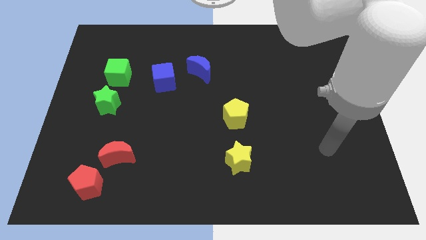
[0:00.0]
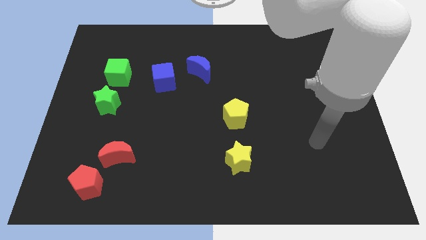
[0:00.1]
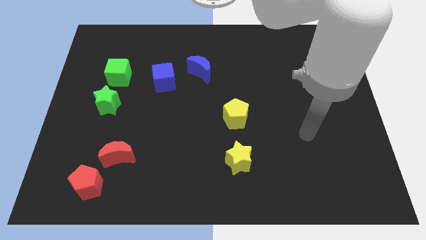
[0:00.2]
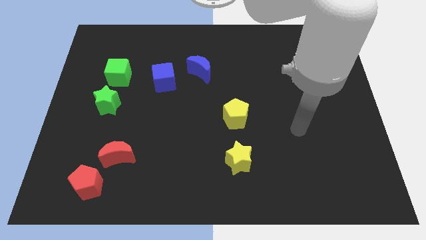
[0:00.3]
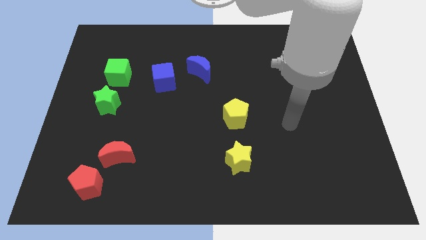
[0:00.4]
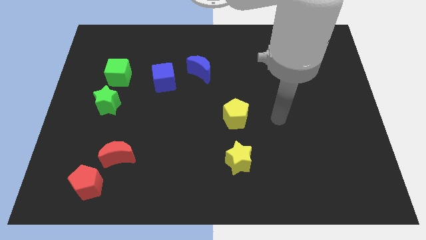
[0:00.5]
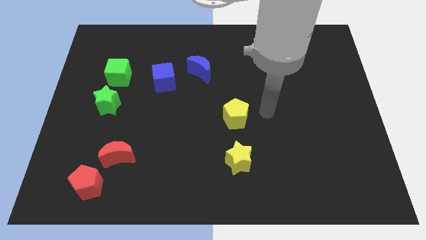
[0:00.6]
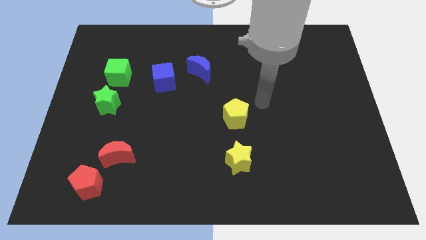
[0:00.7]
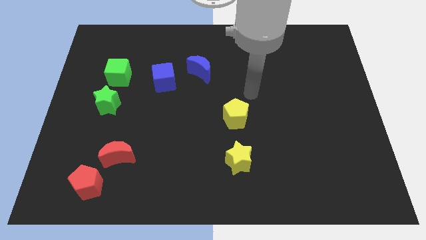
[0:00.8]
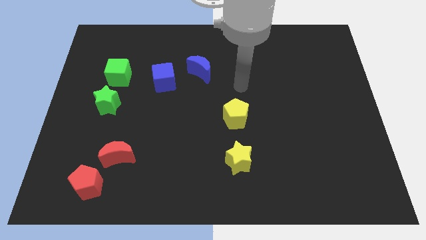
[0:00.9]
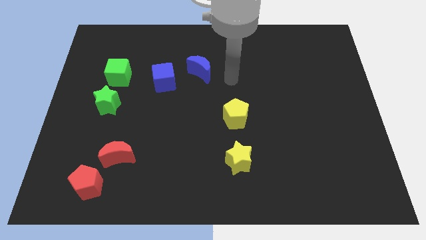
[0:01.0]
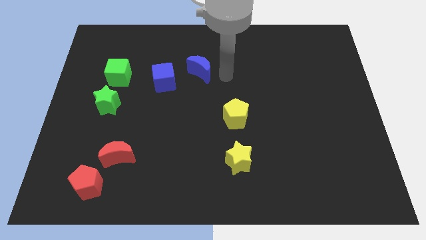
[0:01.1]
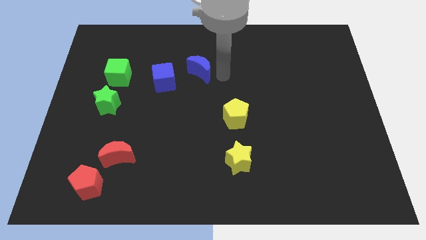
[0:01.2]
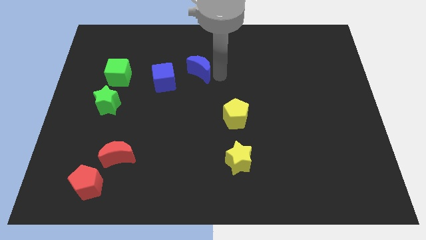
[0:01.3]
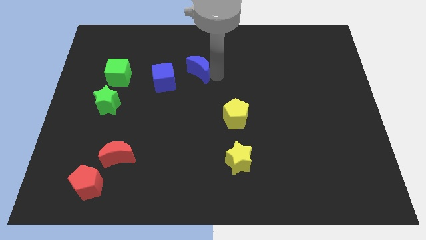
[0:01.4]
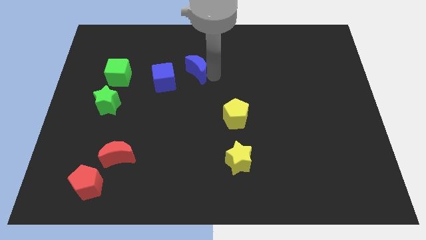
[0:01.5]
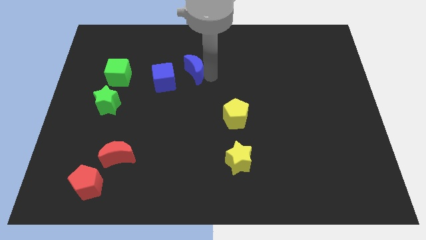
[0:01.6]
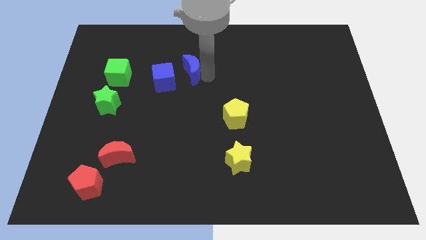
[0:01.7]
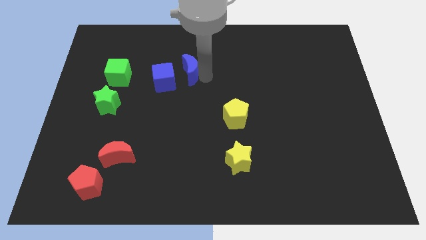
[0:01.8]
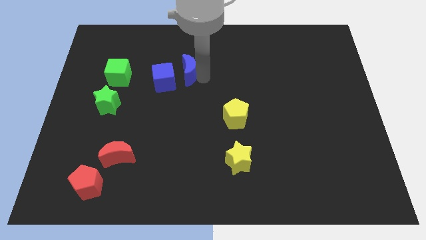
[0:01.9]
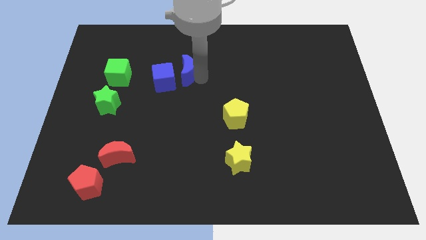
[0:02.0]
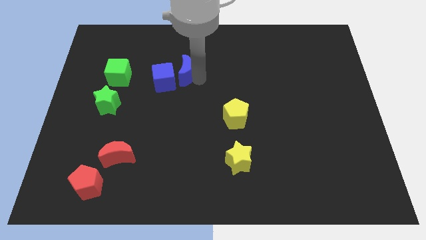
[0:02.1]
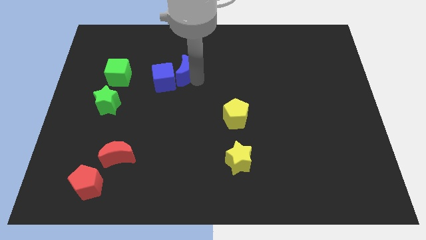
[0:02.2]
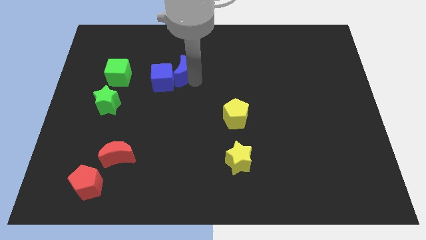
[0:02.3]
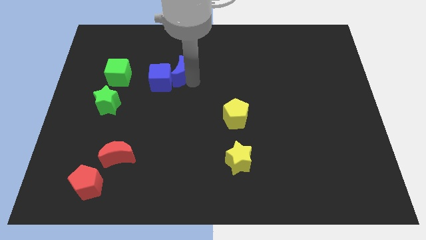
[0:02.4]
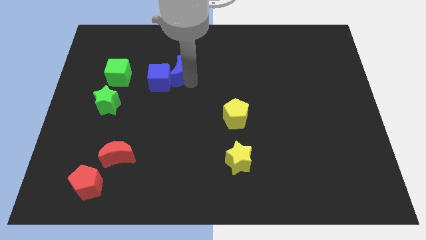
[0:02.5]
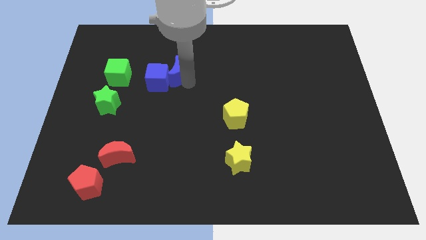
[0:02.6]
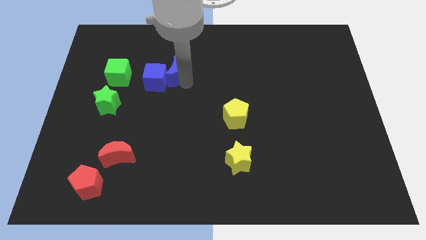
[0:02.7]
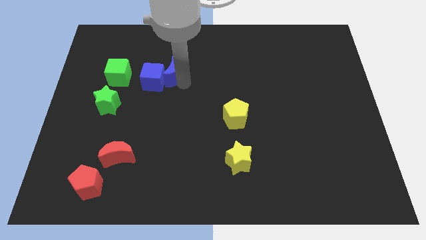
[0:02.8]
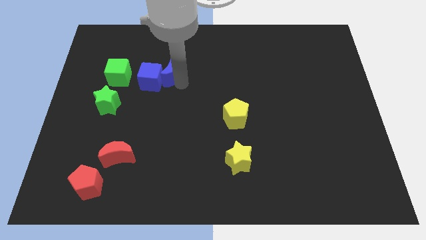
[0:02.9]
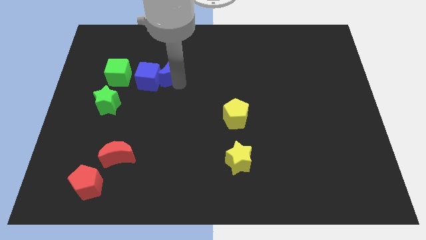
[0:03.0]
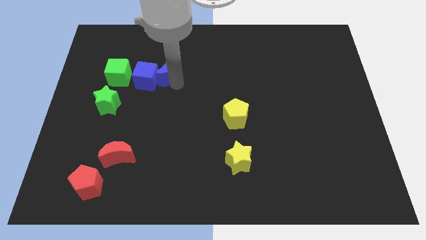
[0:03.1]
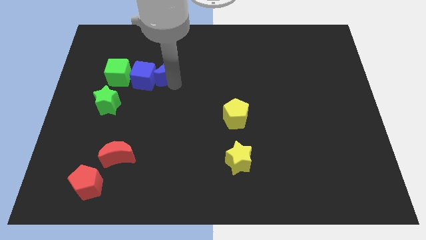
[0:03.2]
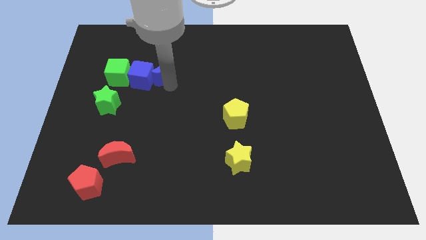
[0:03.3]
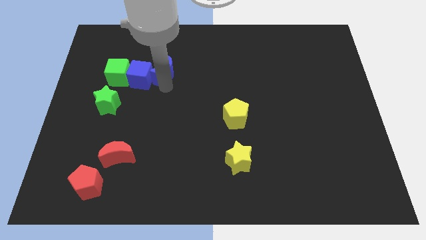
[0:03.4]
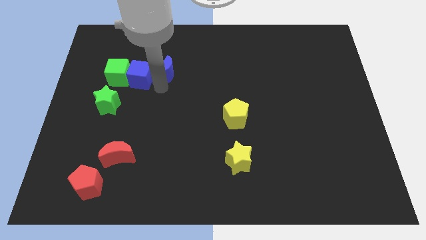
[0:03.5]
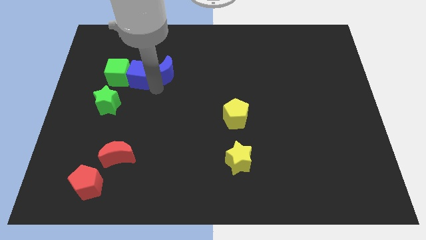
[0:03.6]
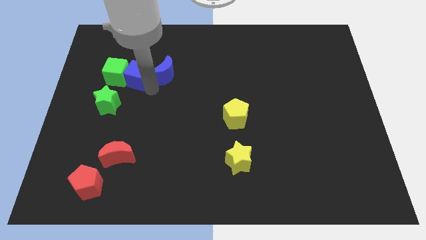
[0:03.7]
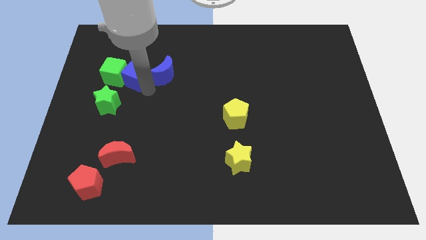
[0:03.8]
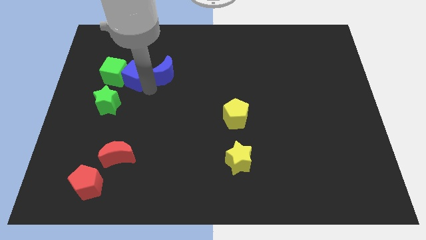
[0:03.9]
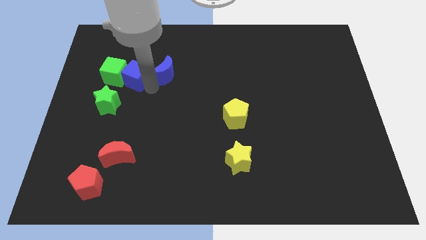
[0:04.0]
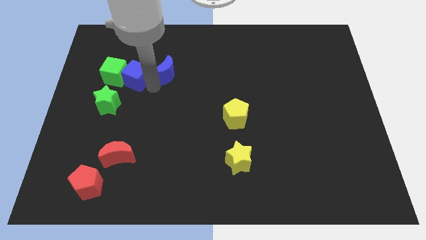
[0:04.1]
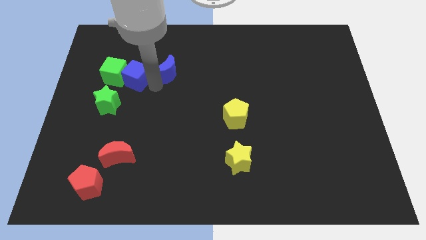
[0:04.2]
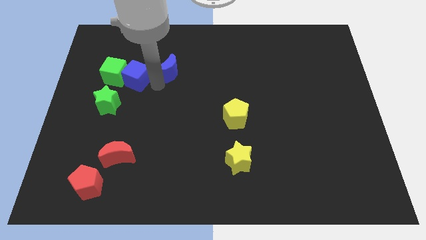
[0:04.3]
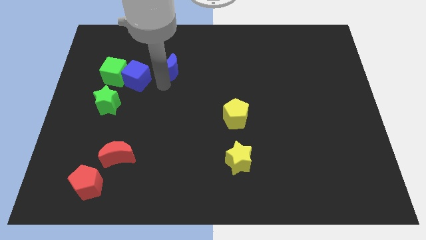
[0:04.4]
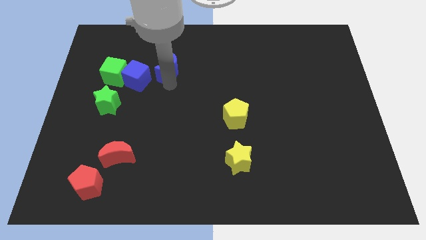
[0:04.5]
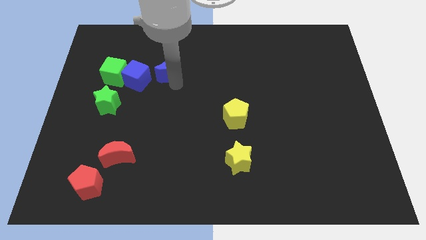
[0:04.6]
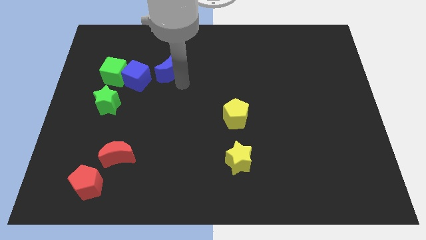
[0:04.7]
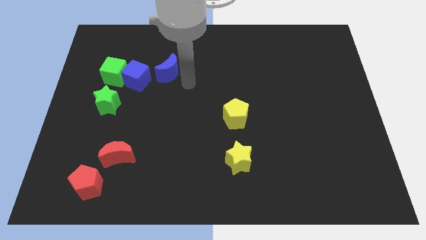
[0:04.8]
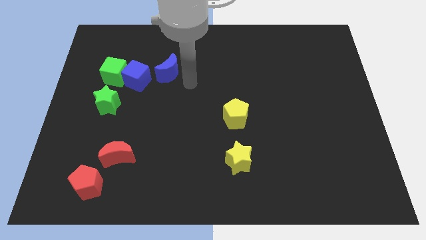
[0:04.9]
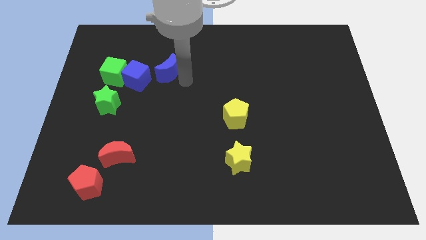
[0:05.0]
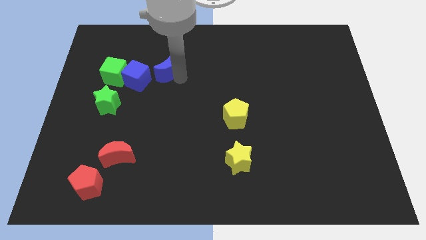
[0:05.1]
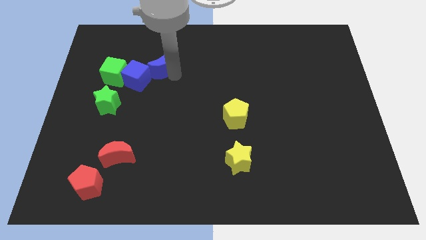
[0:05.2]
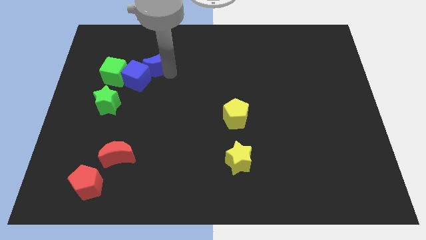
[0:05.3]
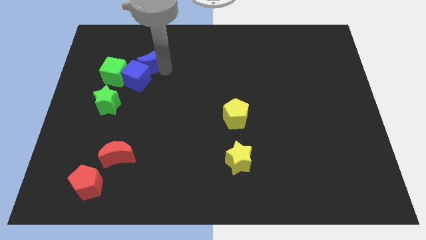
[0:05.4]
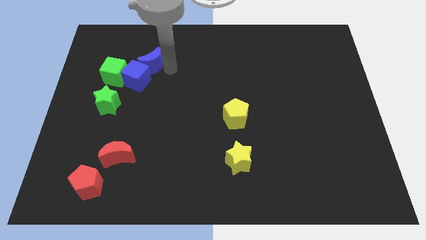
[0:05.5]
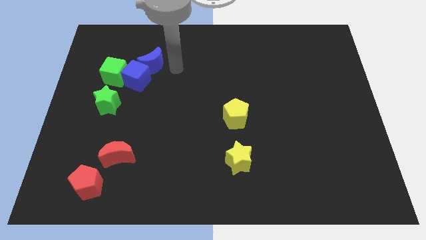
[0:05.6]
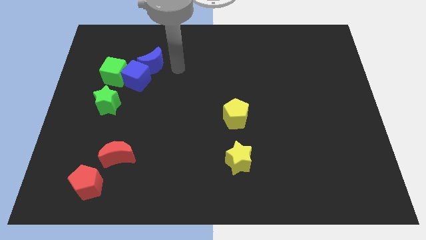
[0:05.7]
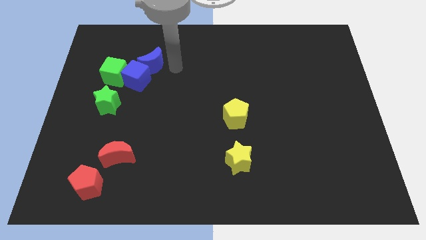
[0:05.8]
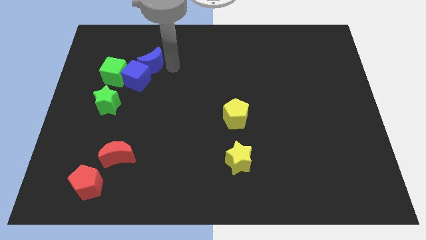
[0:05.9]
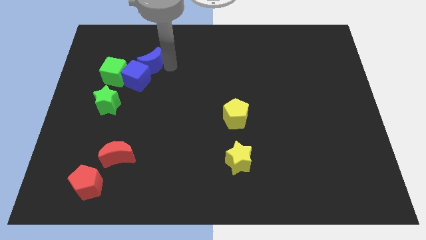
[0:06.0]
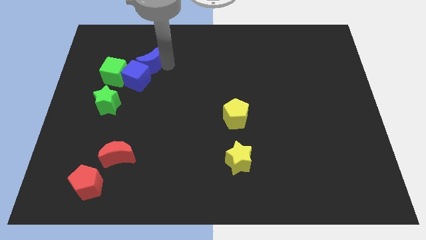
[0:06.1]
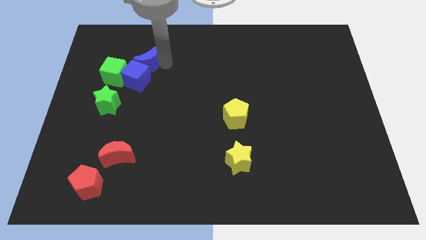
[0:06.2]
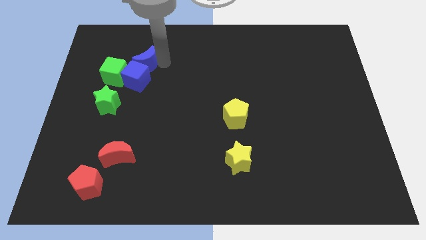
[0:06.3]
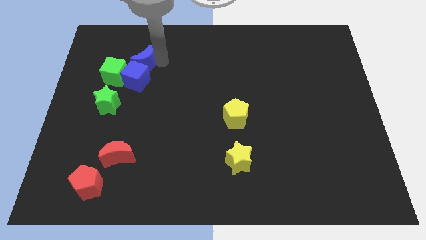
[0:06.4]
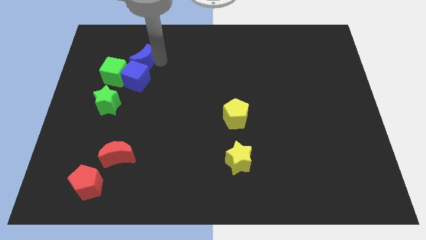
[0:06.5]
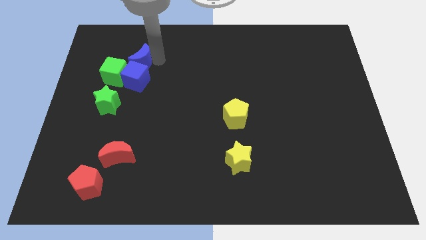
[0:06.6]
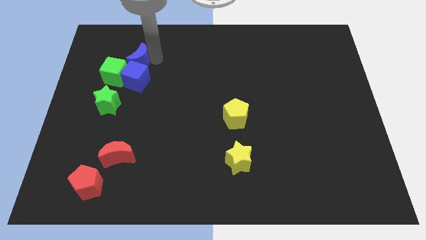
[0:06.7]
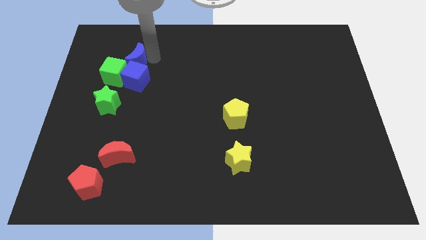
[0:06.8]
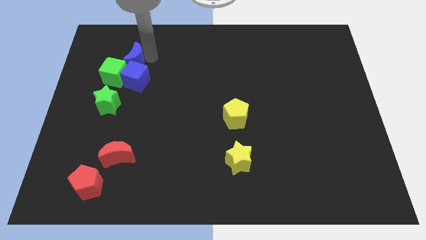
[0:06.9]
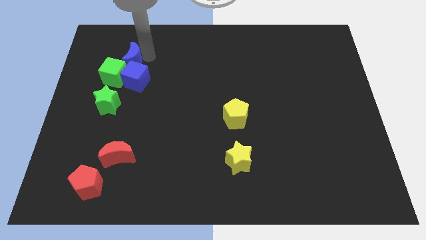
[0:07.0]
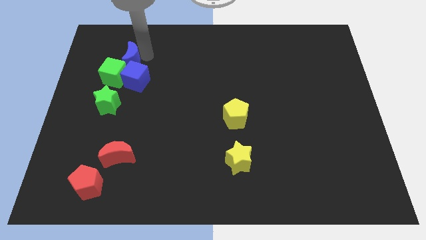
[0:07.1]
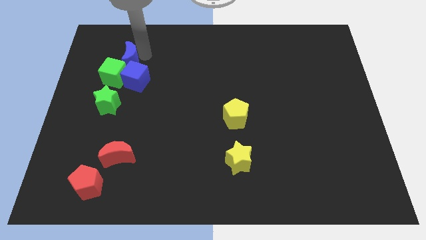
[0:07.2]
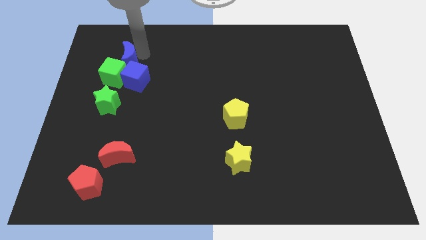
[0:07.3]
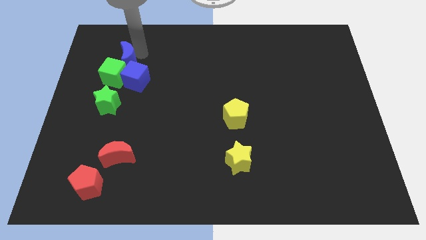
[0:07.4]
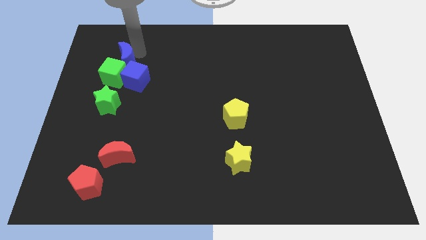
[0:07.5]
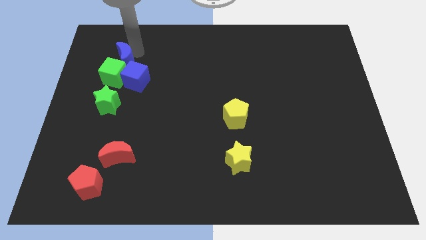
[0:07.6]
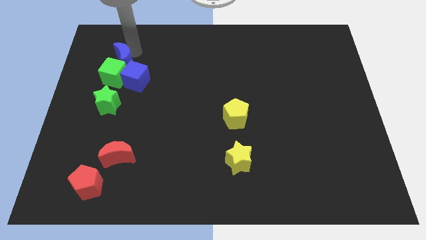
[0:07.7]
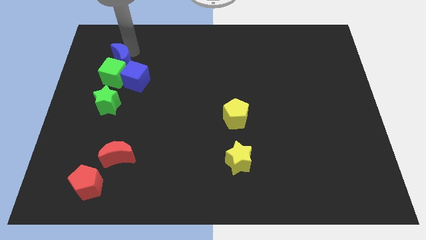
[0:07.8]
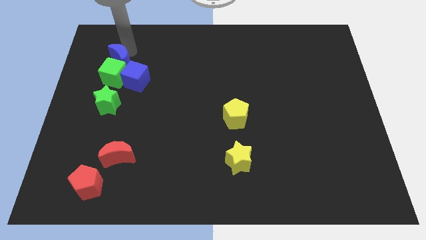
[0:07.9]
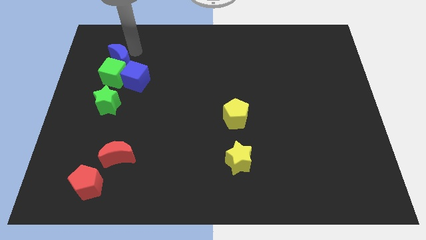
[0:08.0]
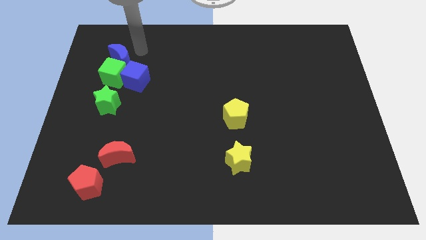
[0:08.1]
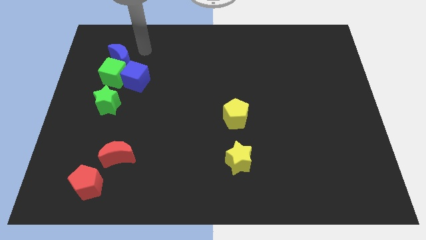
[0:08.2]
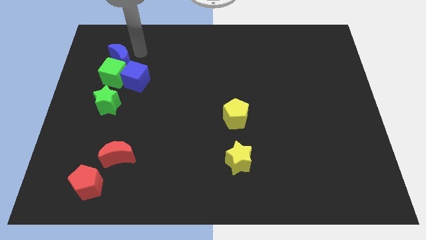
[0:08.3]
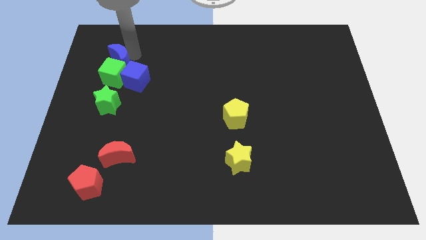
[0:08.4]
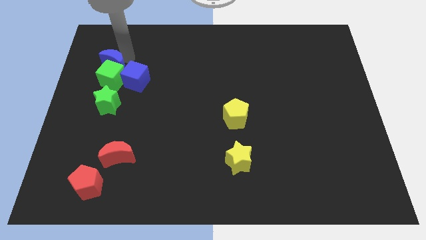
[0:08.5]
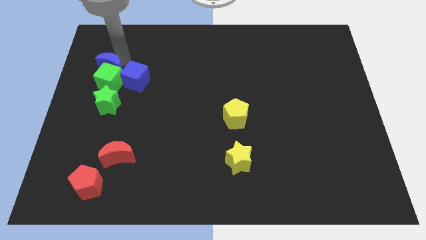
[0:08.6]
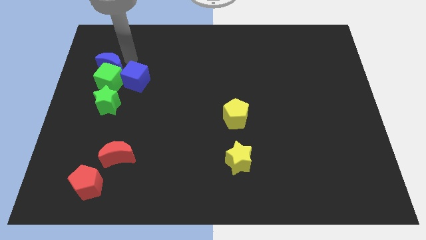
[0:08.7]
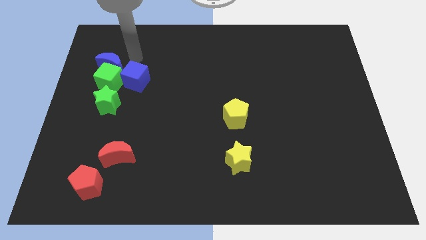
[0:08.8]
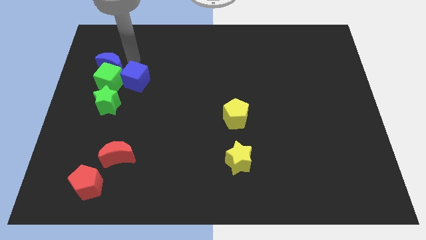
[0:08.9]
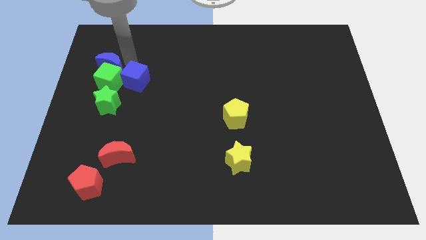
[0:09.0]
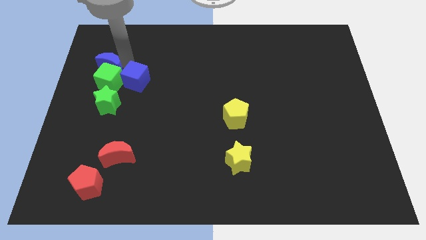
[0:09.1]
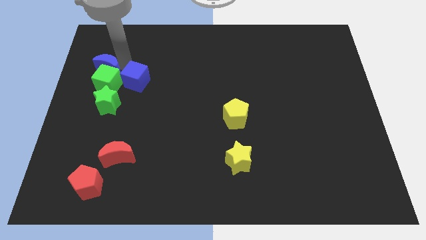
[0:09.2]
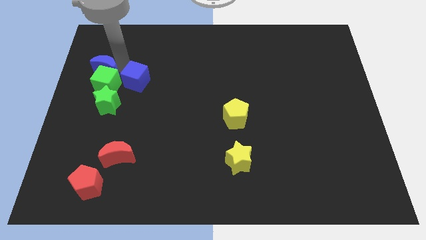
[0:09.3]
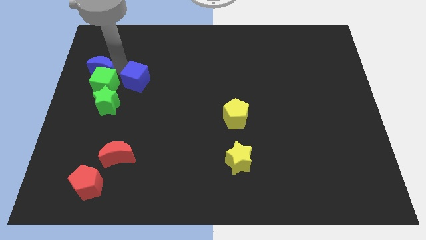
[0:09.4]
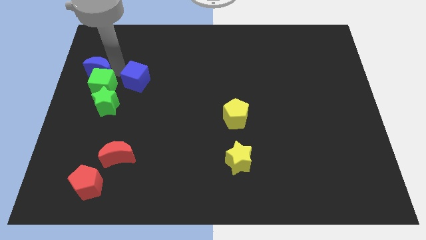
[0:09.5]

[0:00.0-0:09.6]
slide the blue moon to the center left
